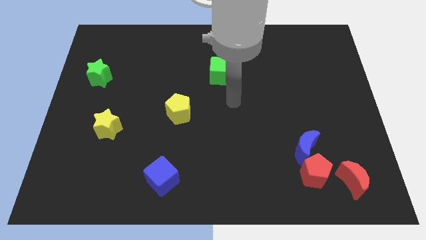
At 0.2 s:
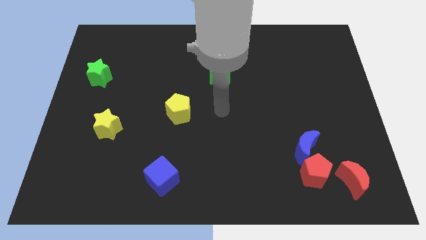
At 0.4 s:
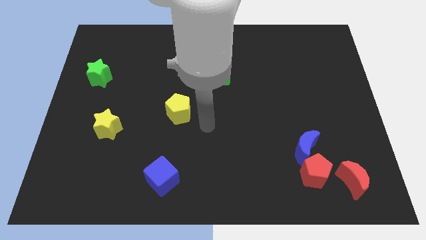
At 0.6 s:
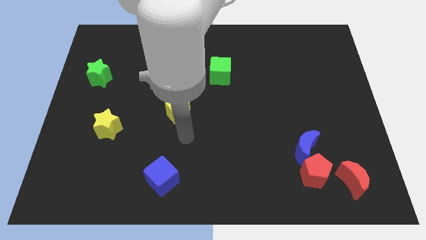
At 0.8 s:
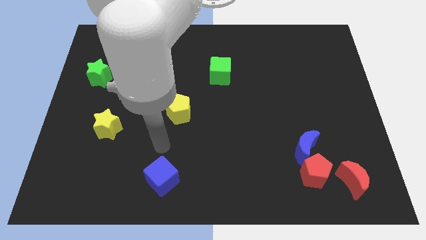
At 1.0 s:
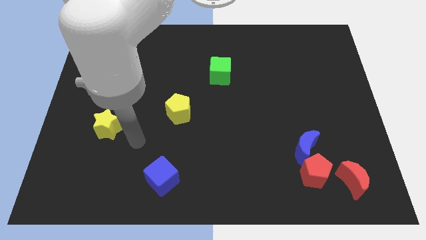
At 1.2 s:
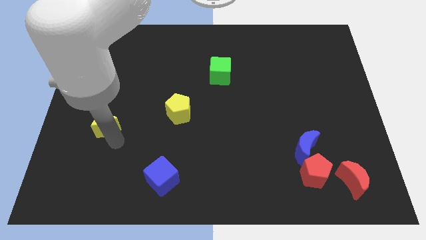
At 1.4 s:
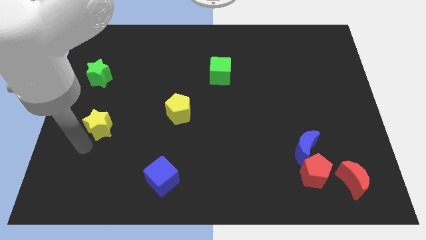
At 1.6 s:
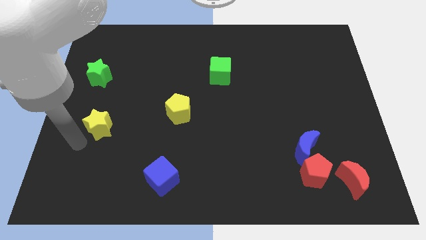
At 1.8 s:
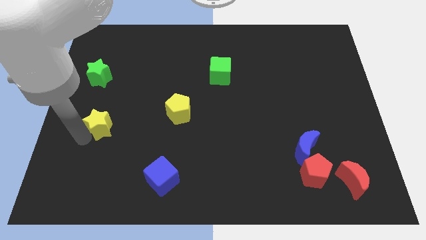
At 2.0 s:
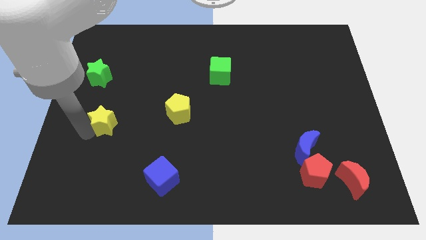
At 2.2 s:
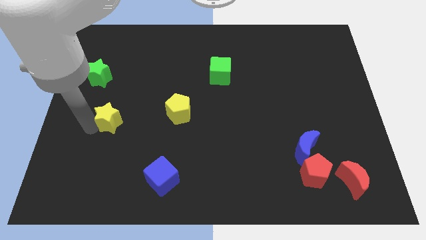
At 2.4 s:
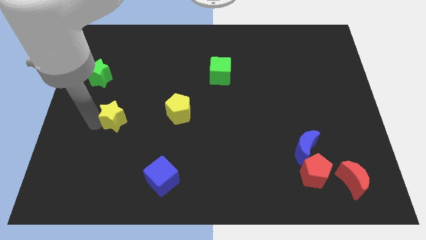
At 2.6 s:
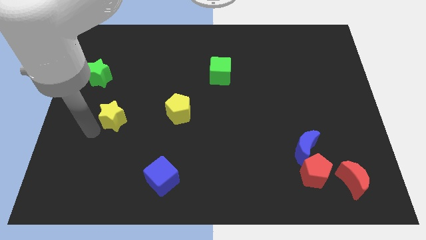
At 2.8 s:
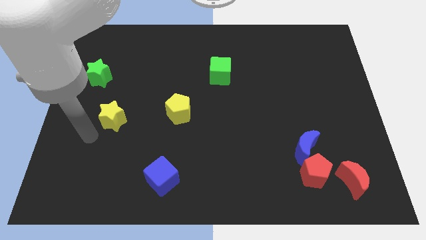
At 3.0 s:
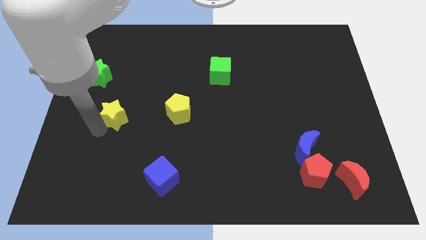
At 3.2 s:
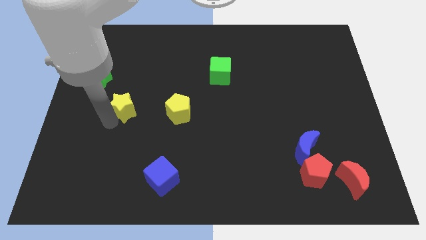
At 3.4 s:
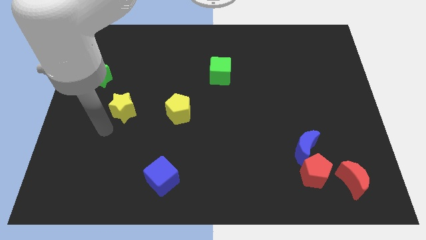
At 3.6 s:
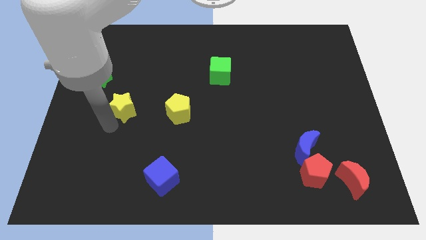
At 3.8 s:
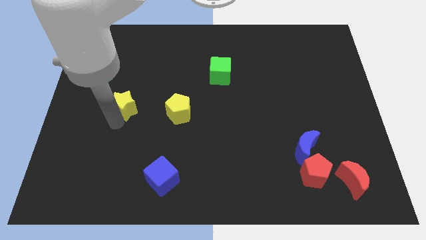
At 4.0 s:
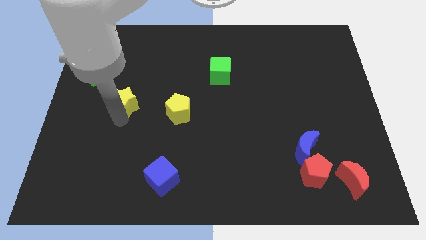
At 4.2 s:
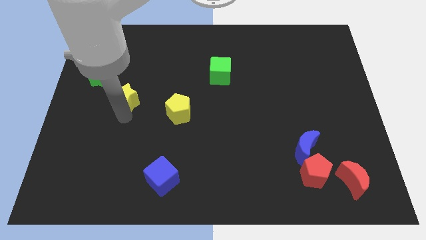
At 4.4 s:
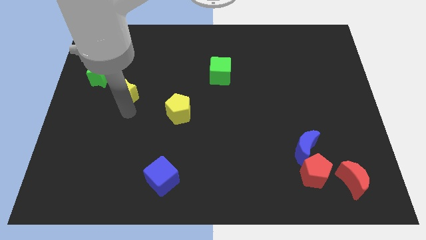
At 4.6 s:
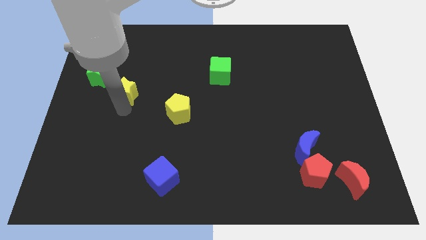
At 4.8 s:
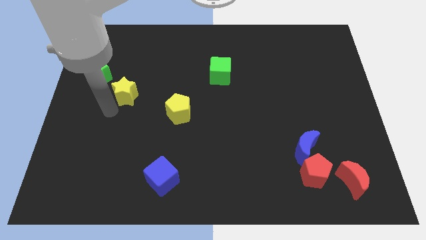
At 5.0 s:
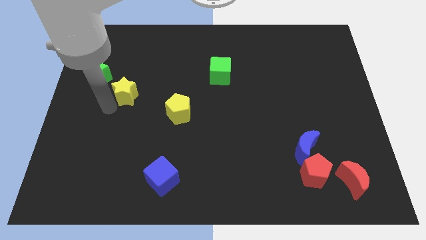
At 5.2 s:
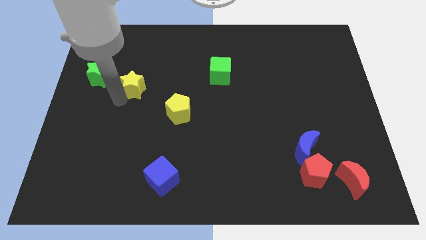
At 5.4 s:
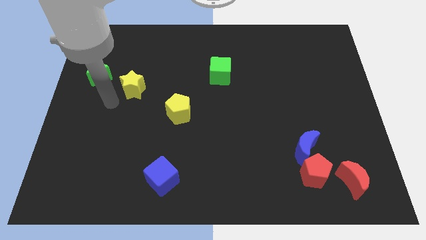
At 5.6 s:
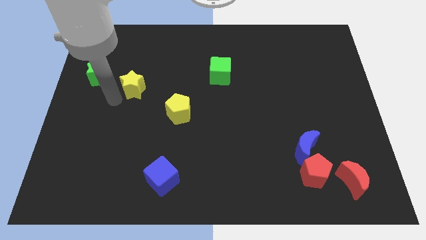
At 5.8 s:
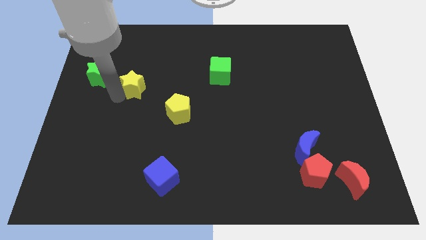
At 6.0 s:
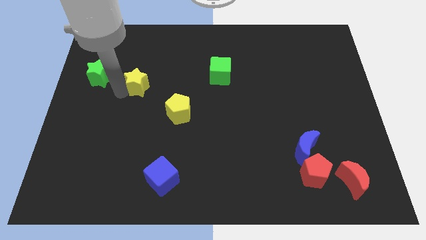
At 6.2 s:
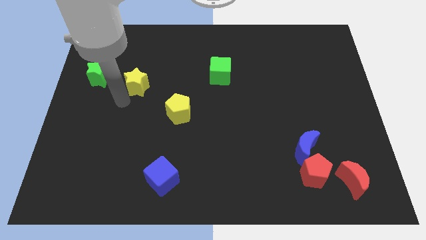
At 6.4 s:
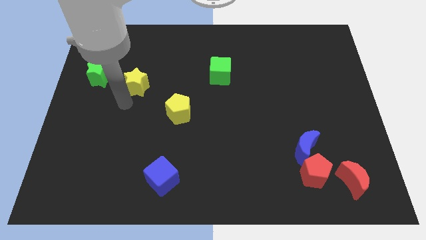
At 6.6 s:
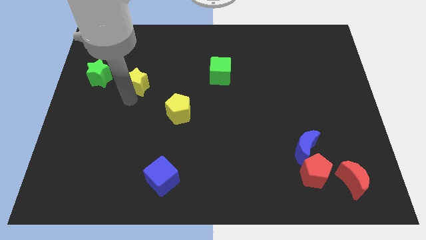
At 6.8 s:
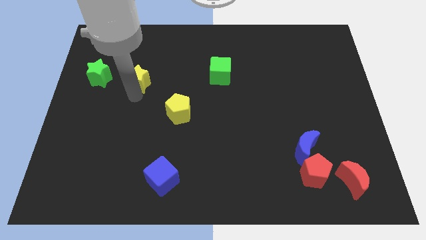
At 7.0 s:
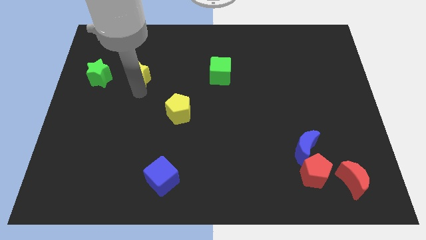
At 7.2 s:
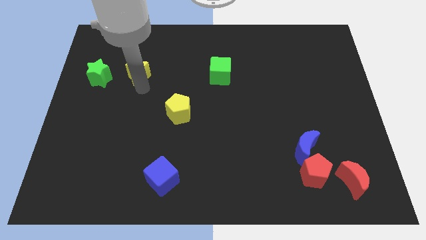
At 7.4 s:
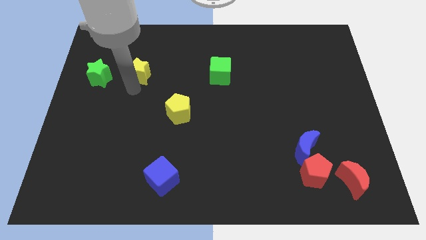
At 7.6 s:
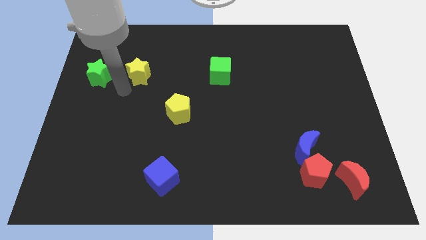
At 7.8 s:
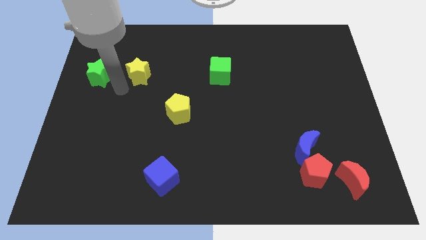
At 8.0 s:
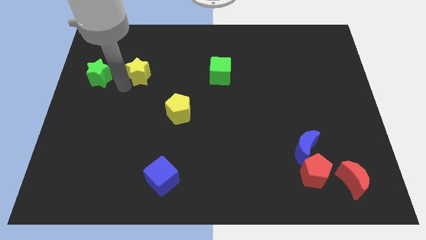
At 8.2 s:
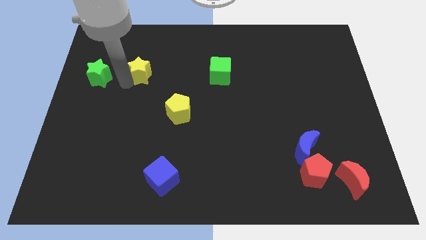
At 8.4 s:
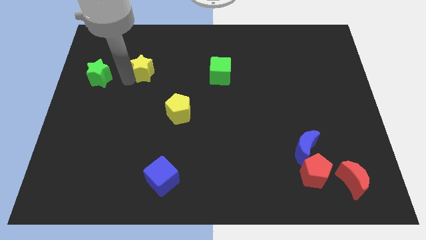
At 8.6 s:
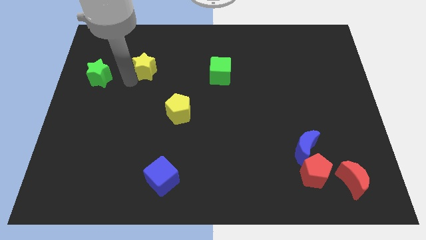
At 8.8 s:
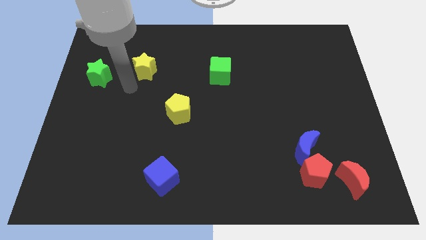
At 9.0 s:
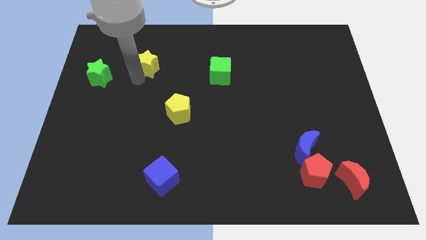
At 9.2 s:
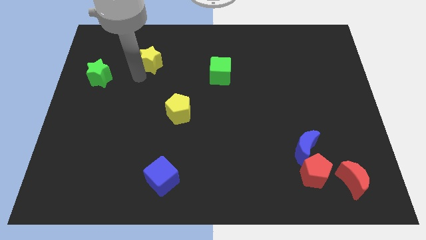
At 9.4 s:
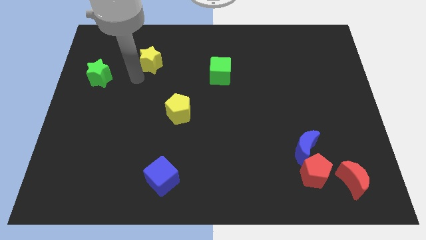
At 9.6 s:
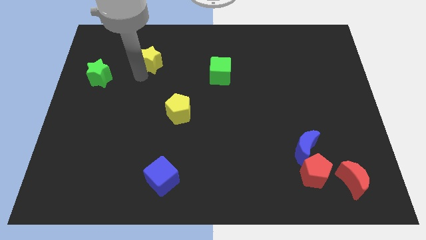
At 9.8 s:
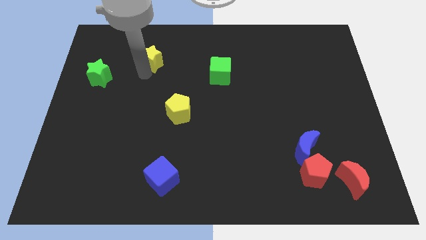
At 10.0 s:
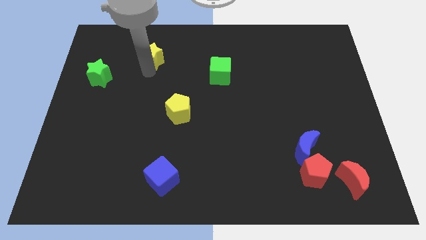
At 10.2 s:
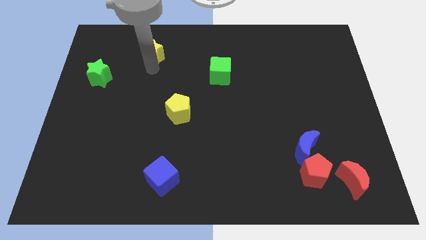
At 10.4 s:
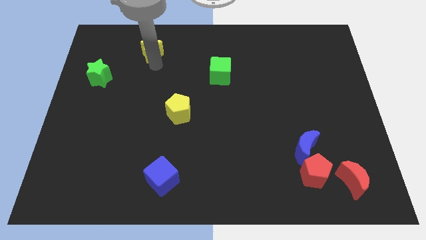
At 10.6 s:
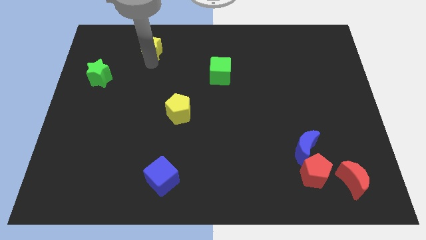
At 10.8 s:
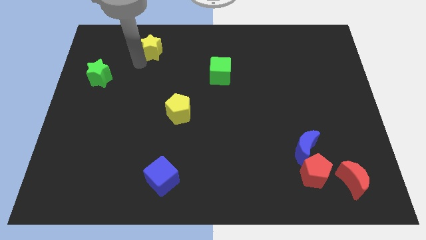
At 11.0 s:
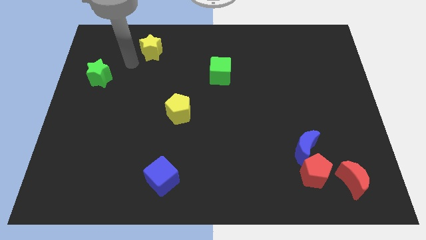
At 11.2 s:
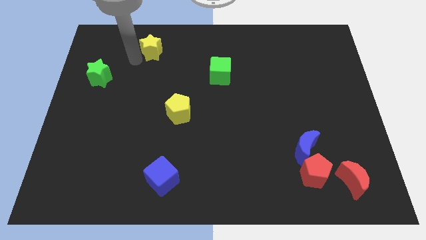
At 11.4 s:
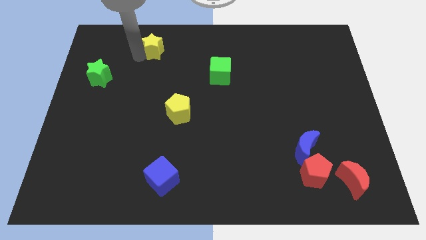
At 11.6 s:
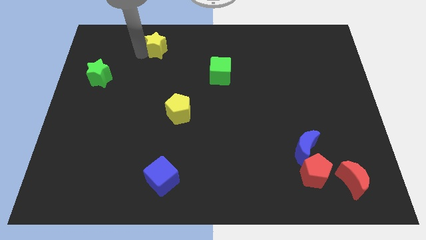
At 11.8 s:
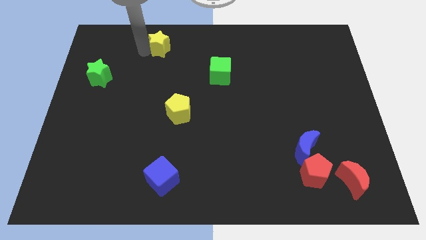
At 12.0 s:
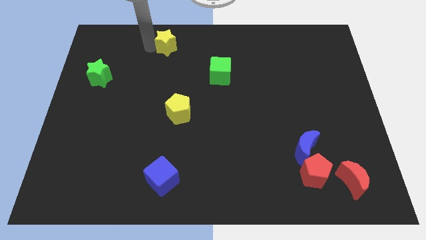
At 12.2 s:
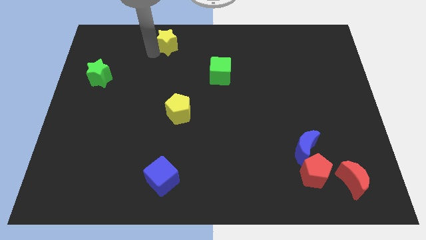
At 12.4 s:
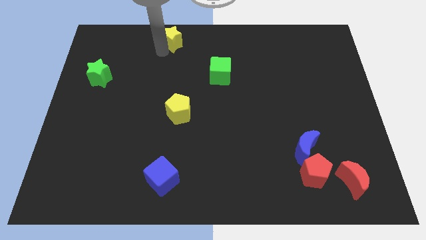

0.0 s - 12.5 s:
push the yellow star to the top
